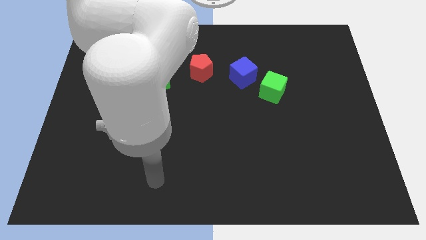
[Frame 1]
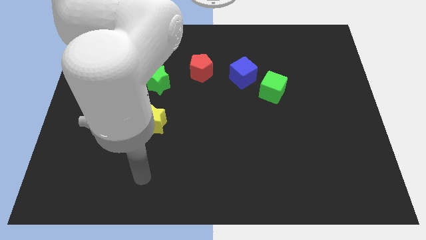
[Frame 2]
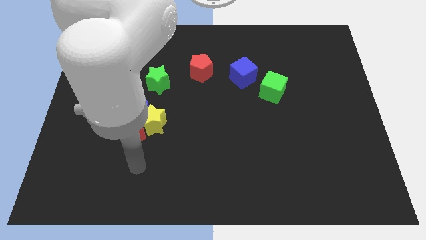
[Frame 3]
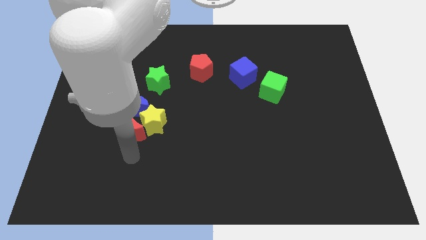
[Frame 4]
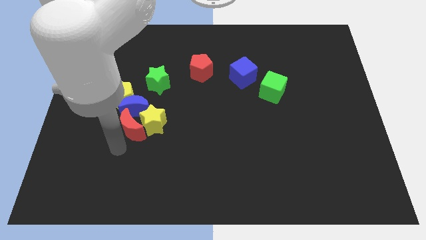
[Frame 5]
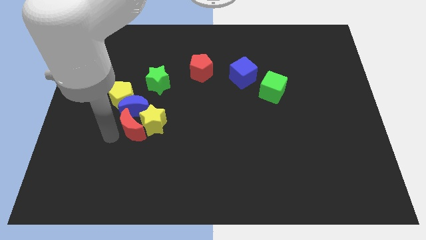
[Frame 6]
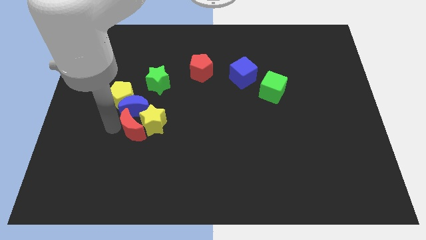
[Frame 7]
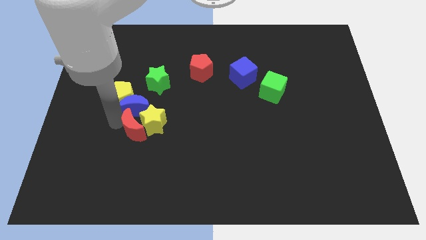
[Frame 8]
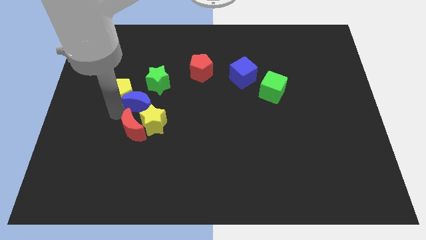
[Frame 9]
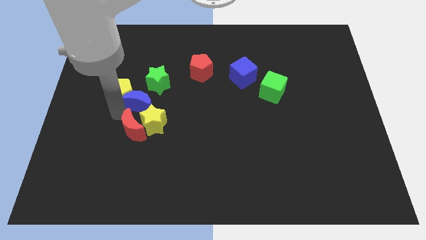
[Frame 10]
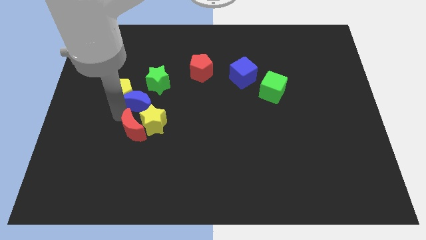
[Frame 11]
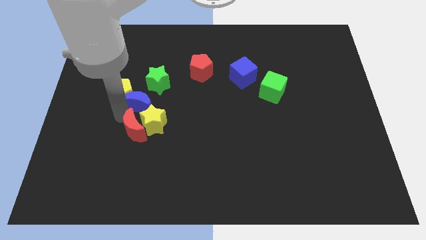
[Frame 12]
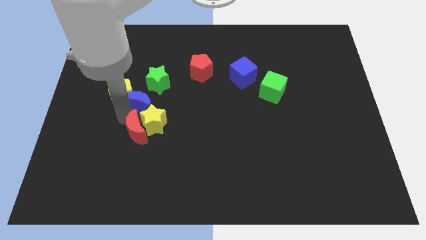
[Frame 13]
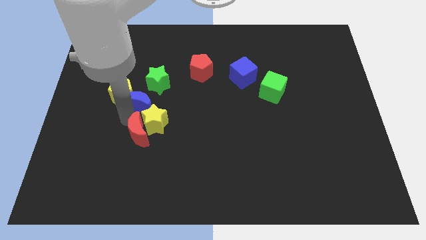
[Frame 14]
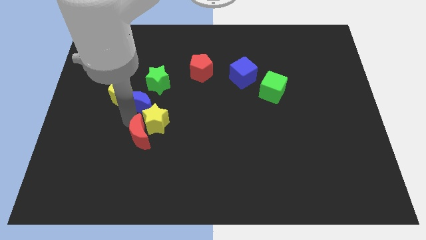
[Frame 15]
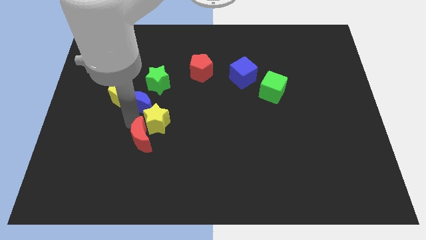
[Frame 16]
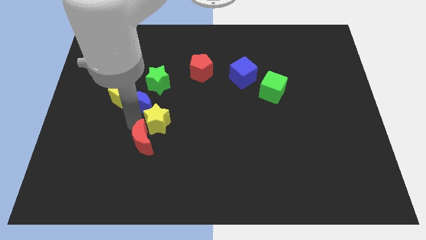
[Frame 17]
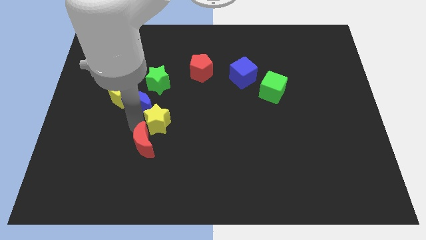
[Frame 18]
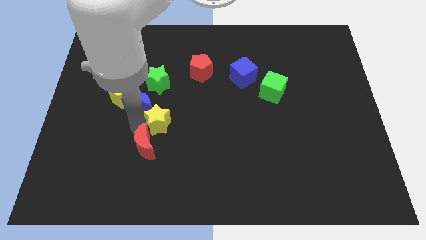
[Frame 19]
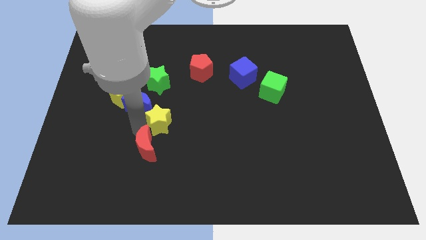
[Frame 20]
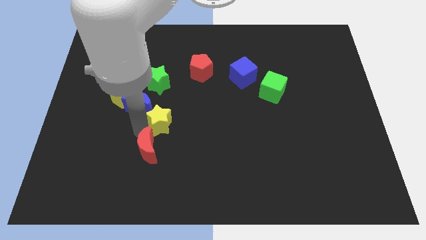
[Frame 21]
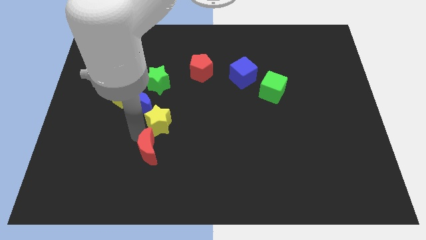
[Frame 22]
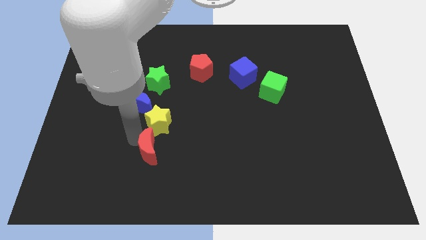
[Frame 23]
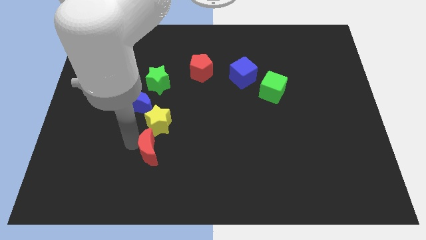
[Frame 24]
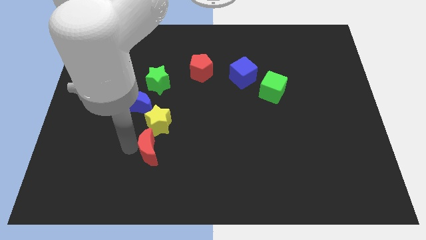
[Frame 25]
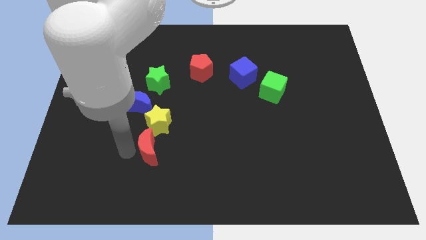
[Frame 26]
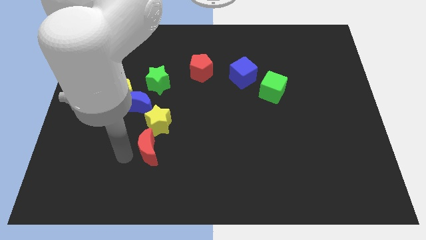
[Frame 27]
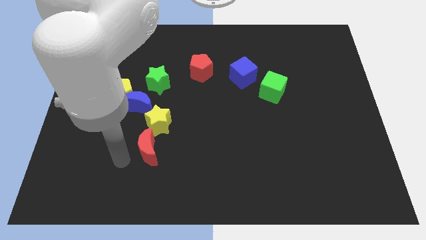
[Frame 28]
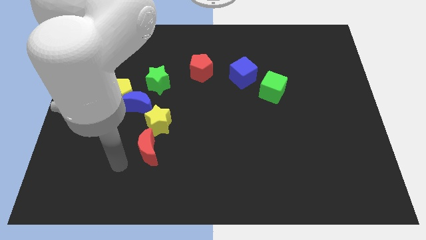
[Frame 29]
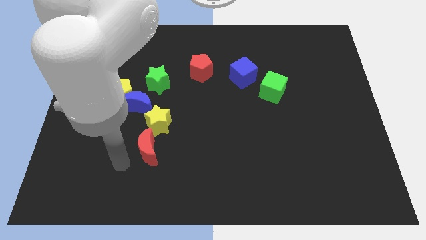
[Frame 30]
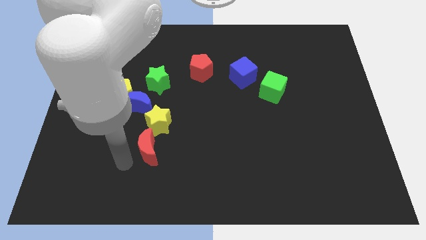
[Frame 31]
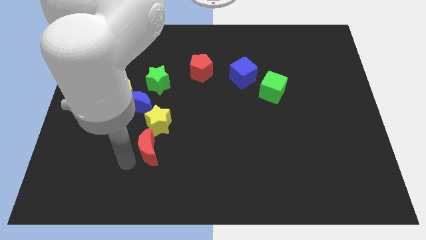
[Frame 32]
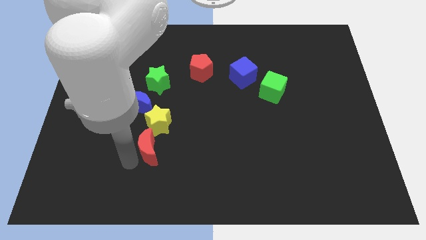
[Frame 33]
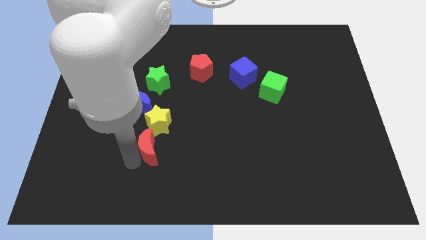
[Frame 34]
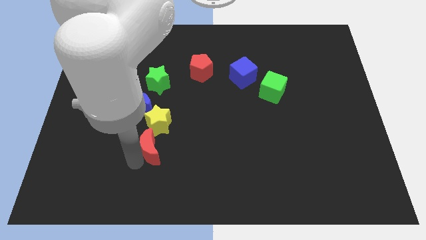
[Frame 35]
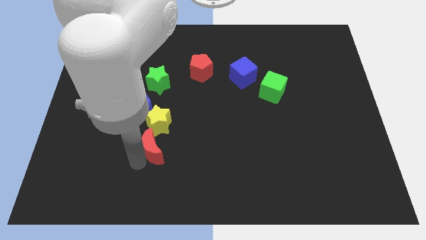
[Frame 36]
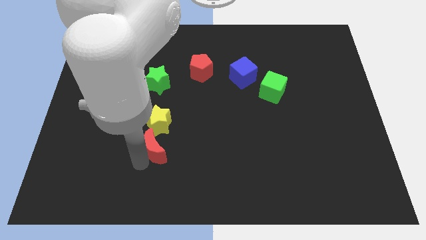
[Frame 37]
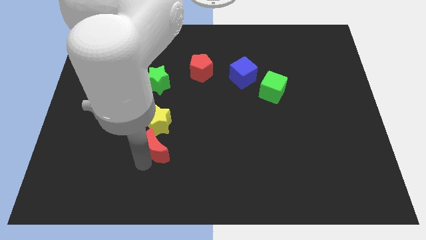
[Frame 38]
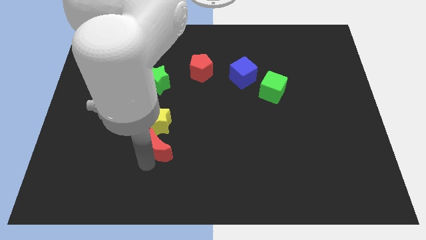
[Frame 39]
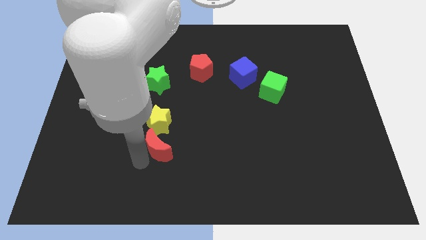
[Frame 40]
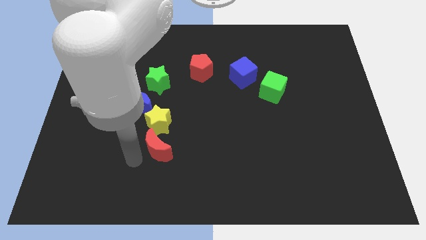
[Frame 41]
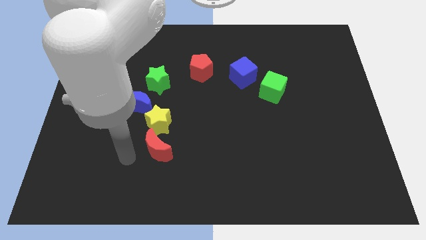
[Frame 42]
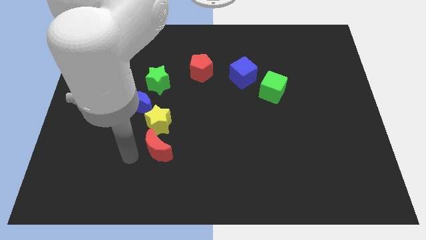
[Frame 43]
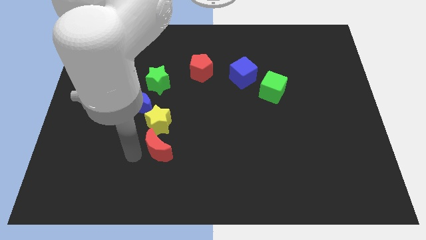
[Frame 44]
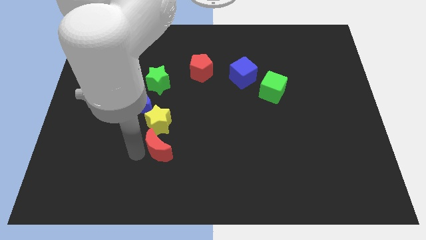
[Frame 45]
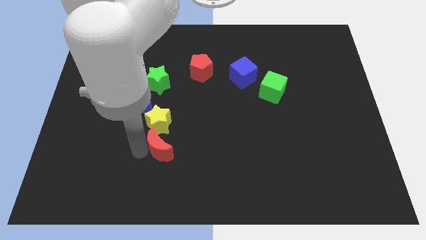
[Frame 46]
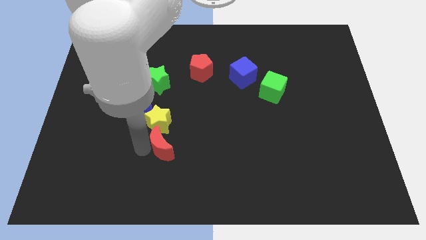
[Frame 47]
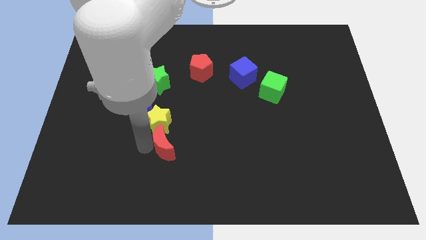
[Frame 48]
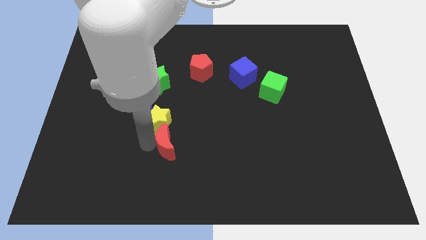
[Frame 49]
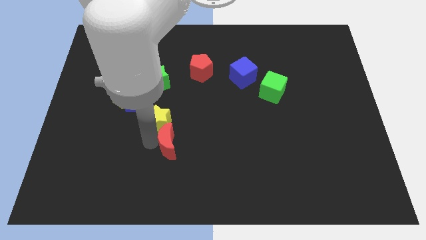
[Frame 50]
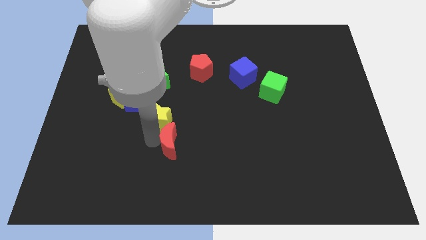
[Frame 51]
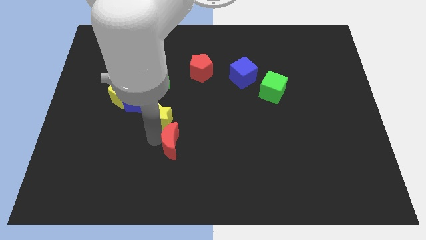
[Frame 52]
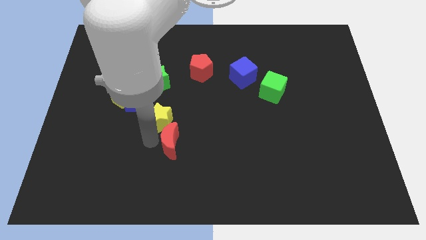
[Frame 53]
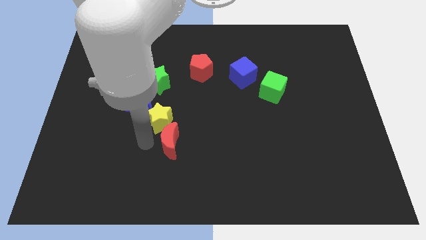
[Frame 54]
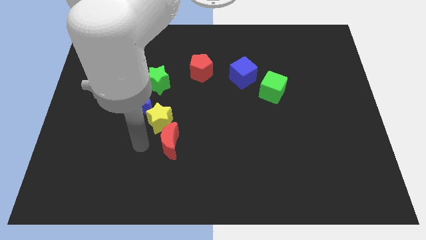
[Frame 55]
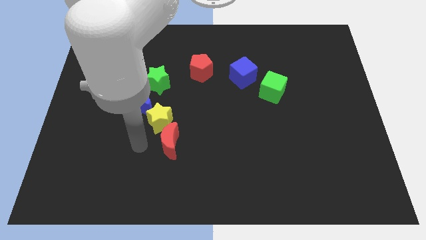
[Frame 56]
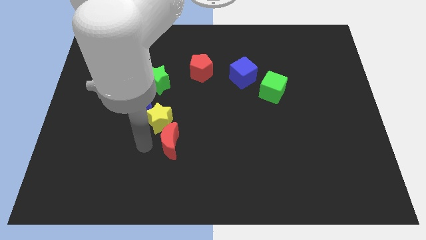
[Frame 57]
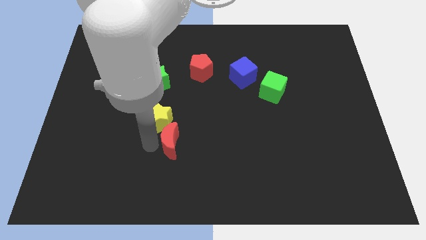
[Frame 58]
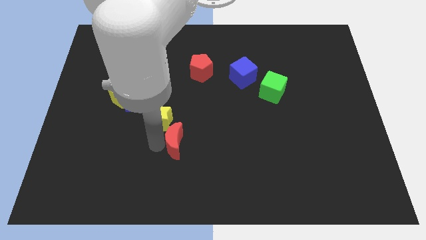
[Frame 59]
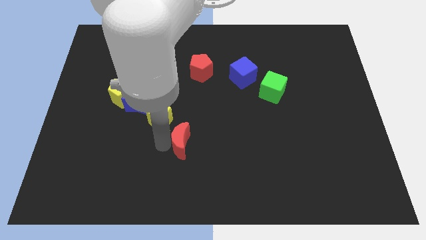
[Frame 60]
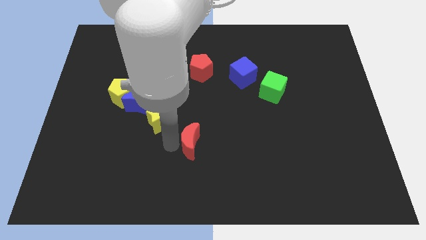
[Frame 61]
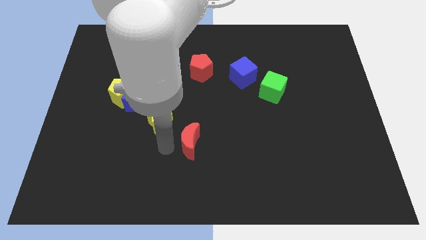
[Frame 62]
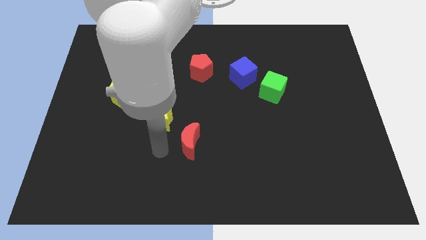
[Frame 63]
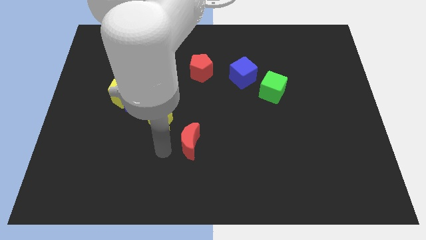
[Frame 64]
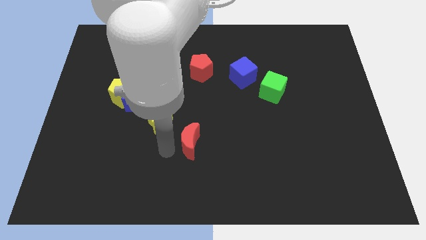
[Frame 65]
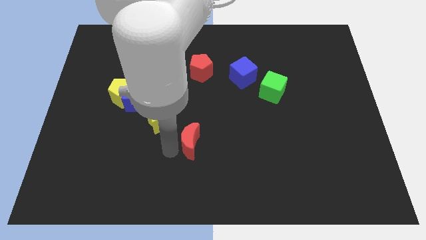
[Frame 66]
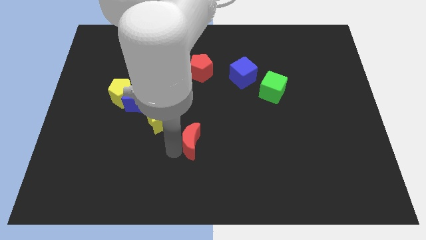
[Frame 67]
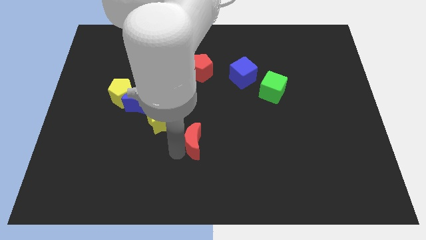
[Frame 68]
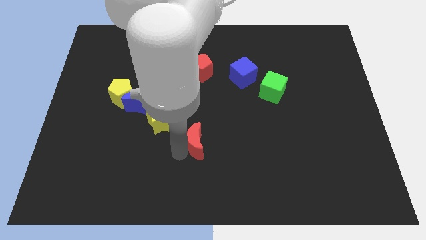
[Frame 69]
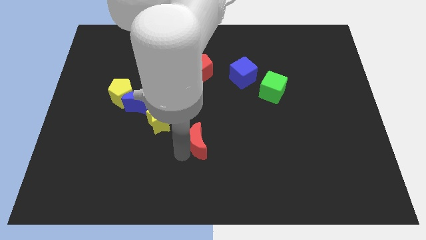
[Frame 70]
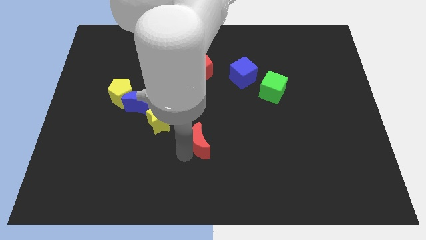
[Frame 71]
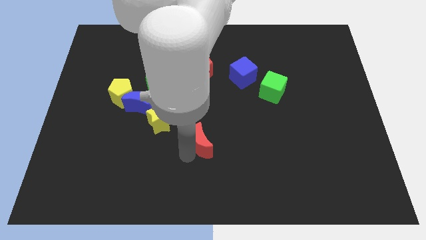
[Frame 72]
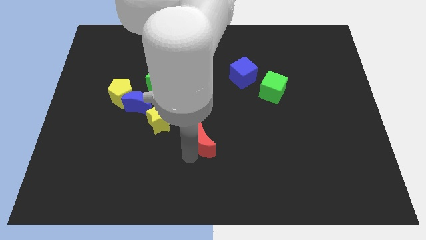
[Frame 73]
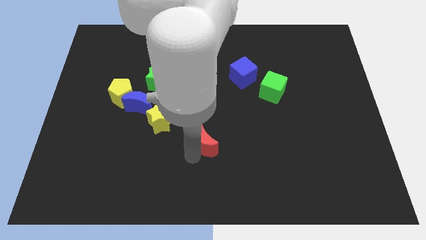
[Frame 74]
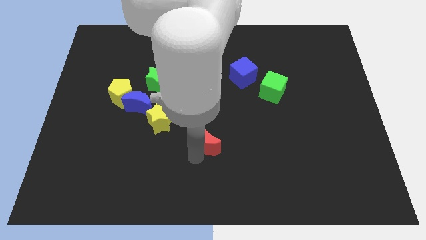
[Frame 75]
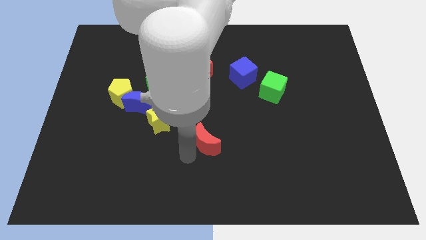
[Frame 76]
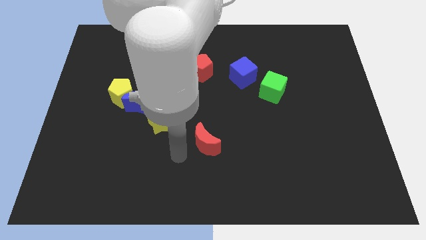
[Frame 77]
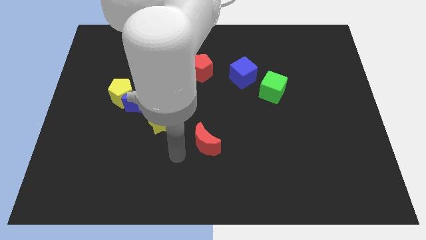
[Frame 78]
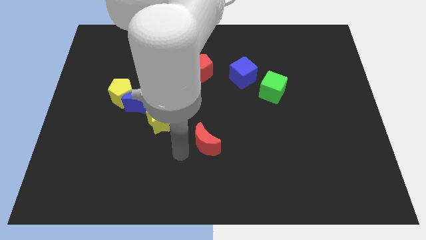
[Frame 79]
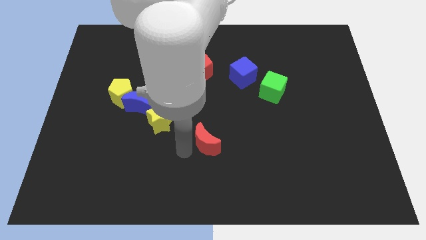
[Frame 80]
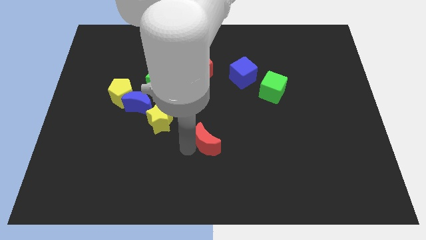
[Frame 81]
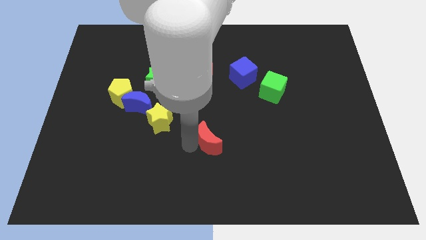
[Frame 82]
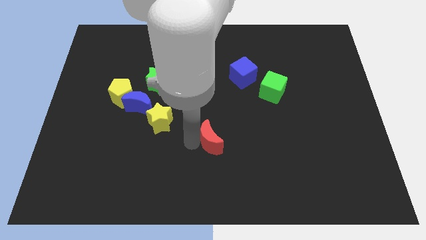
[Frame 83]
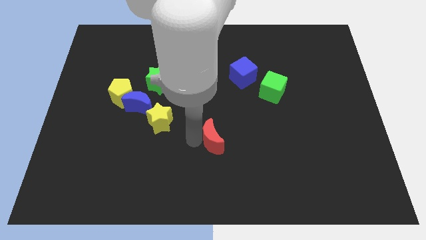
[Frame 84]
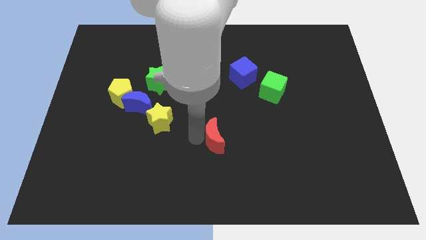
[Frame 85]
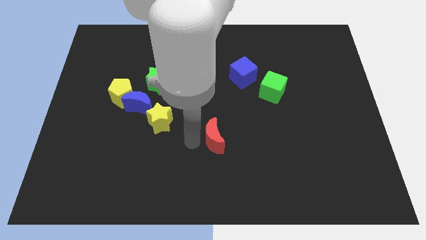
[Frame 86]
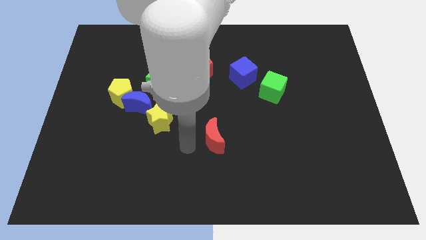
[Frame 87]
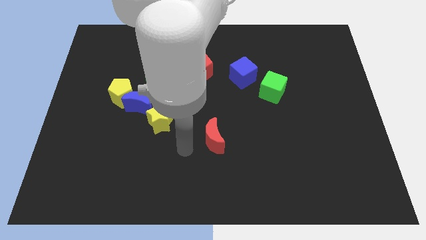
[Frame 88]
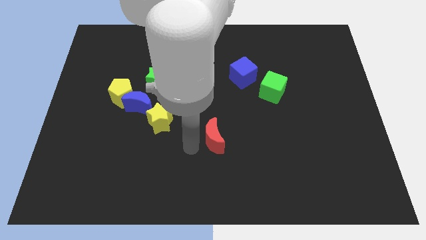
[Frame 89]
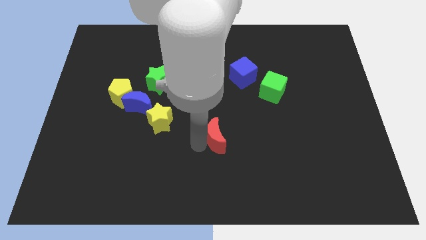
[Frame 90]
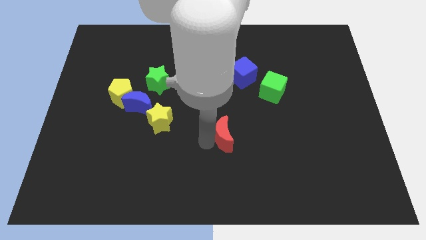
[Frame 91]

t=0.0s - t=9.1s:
move the red moon to the right
